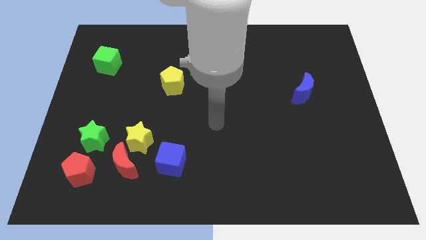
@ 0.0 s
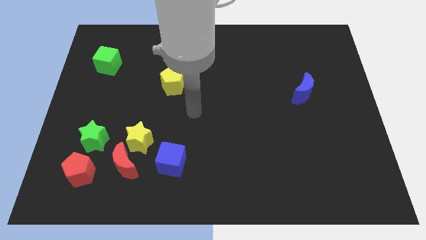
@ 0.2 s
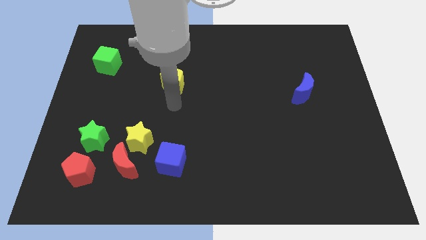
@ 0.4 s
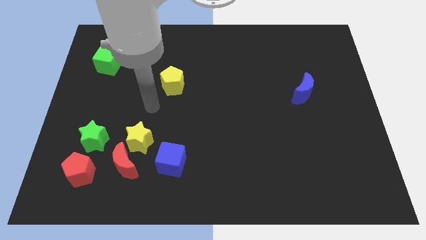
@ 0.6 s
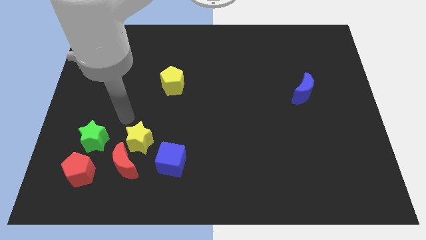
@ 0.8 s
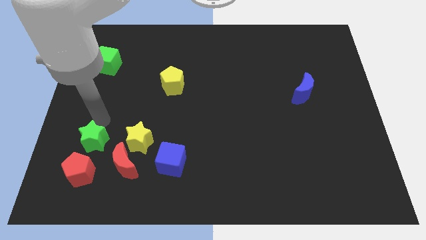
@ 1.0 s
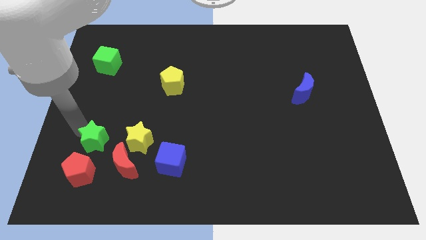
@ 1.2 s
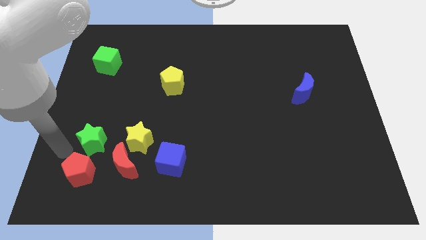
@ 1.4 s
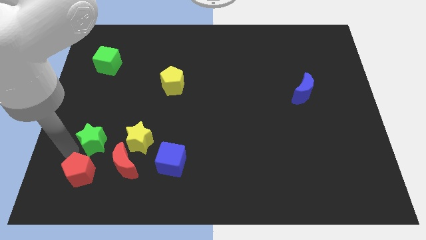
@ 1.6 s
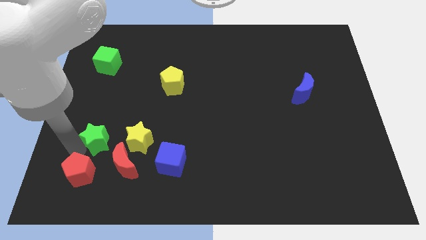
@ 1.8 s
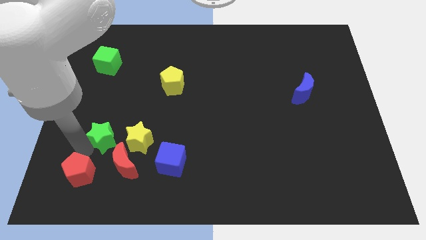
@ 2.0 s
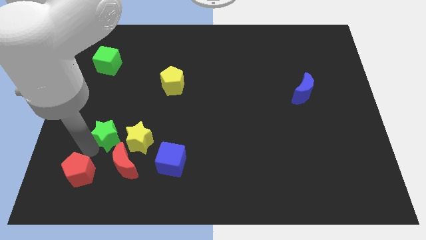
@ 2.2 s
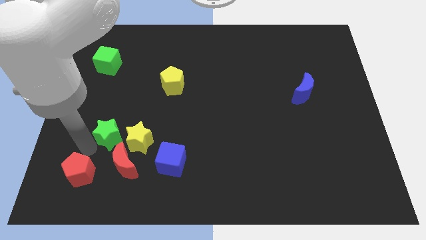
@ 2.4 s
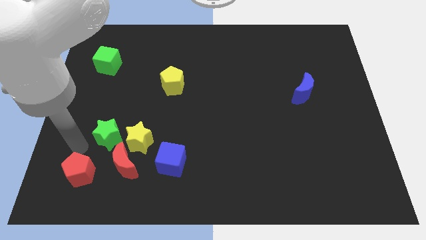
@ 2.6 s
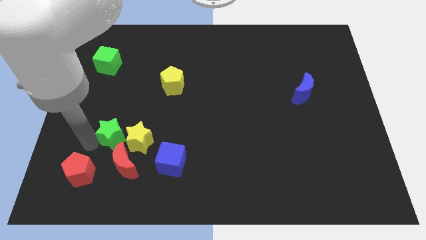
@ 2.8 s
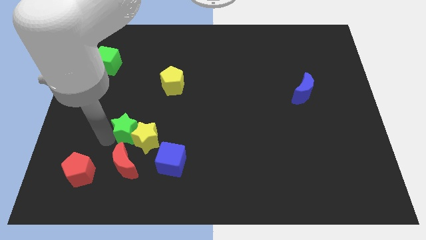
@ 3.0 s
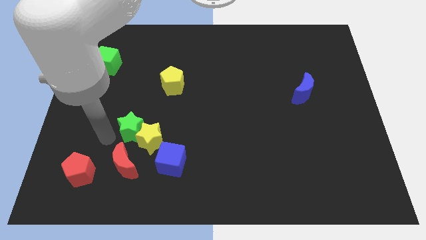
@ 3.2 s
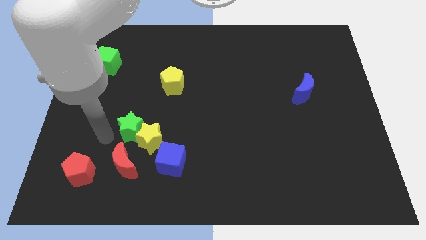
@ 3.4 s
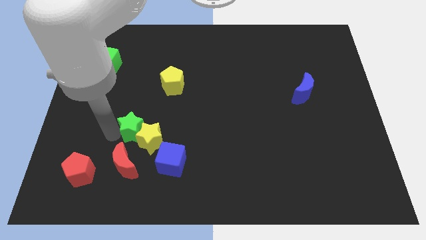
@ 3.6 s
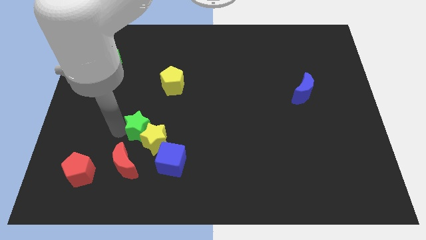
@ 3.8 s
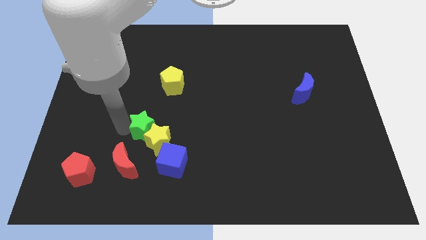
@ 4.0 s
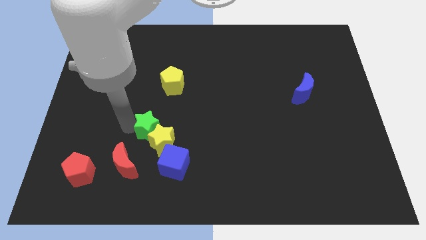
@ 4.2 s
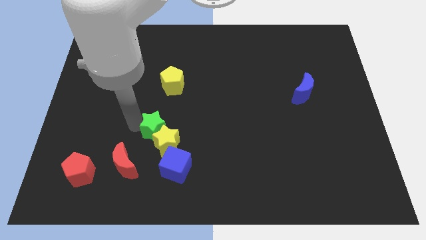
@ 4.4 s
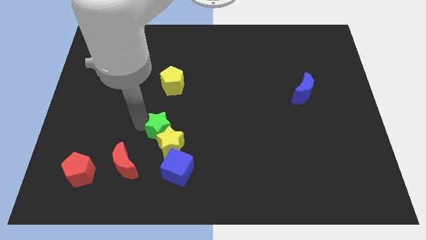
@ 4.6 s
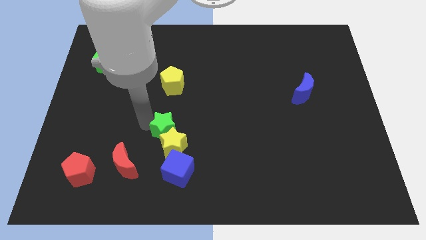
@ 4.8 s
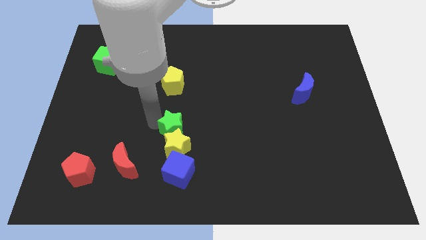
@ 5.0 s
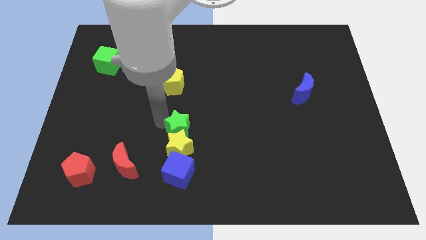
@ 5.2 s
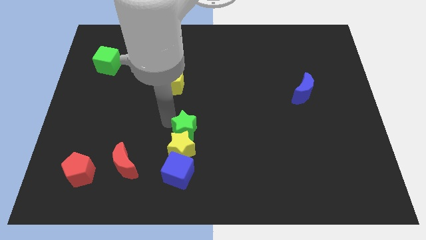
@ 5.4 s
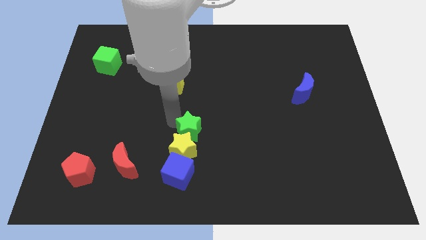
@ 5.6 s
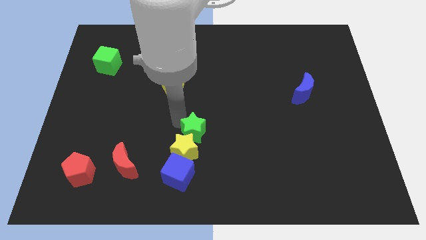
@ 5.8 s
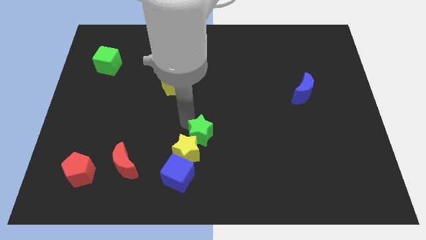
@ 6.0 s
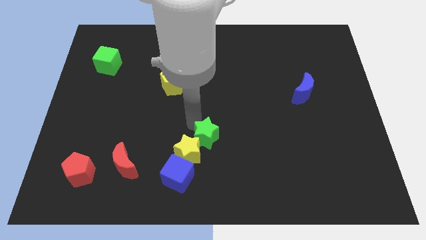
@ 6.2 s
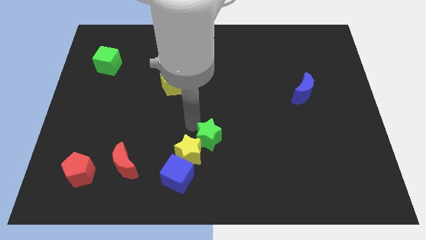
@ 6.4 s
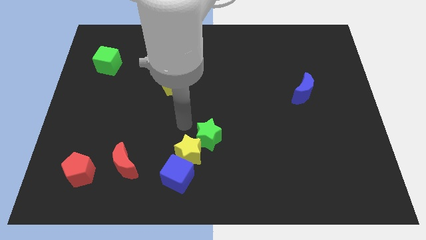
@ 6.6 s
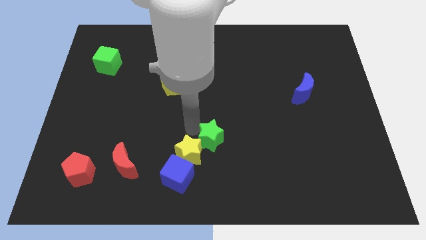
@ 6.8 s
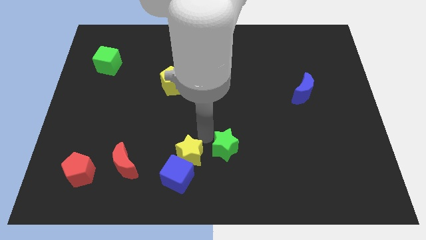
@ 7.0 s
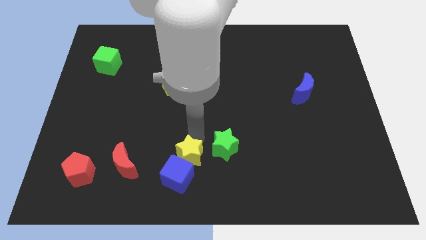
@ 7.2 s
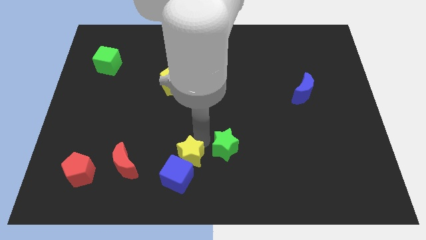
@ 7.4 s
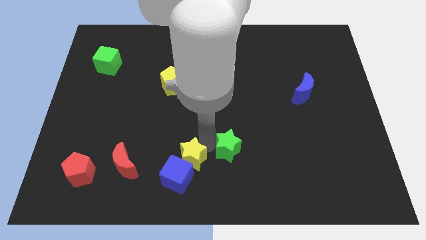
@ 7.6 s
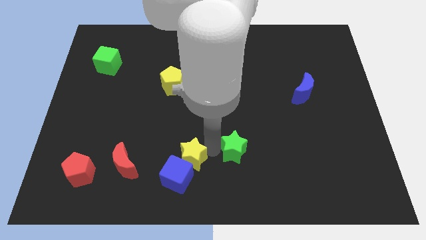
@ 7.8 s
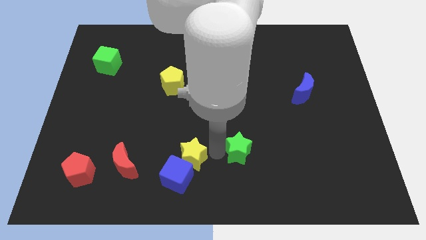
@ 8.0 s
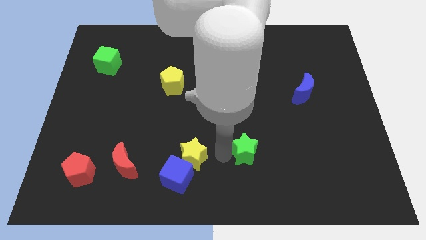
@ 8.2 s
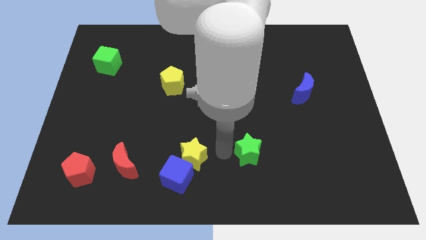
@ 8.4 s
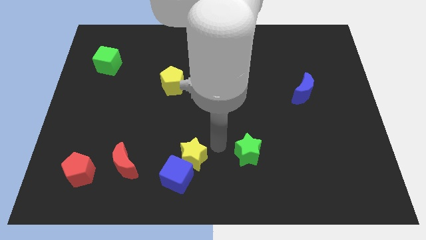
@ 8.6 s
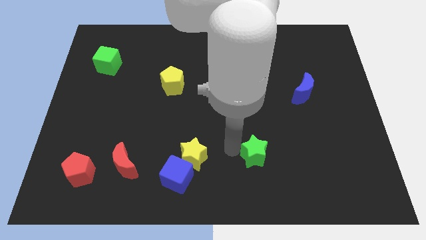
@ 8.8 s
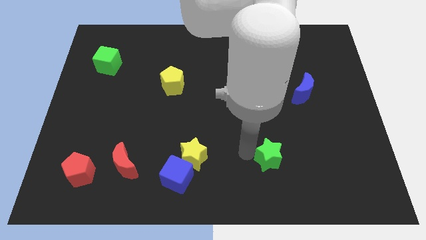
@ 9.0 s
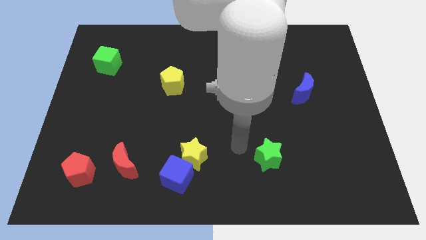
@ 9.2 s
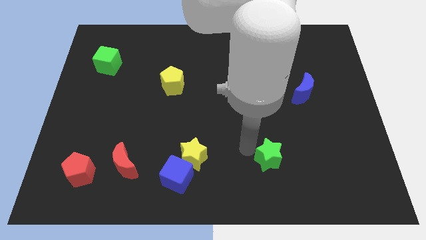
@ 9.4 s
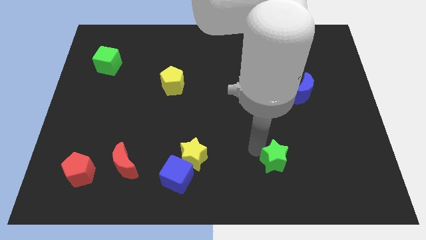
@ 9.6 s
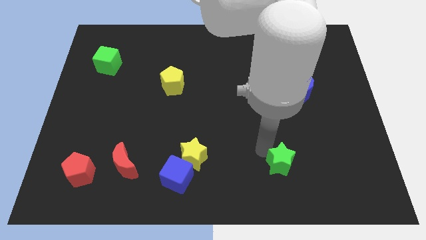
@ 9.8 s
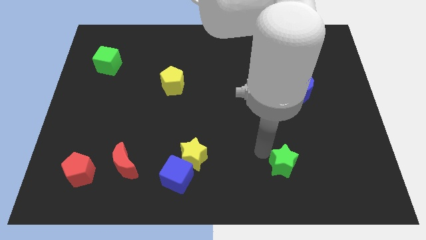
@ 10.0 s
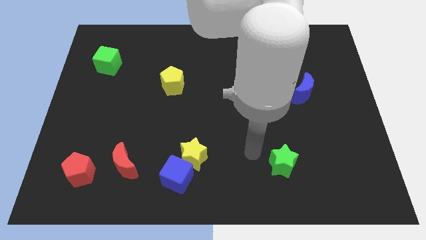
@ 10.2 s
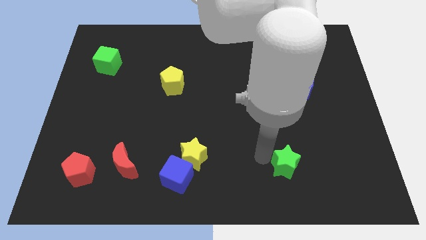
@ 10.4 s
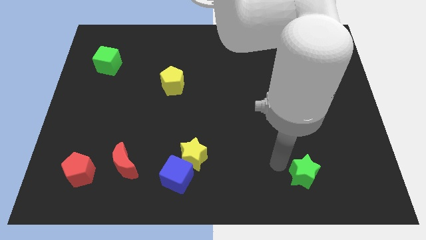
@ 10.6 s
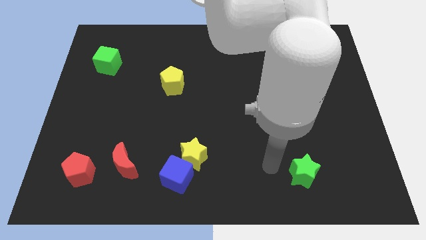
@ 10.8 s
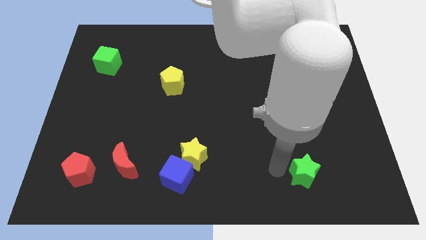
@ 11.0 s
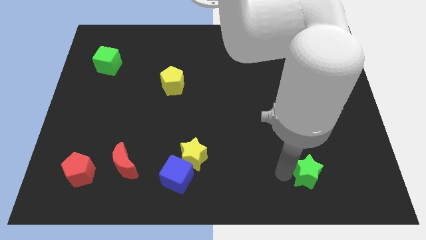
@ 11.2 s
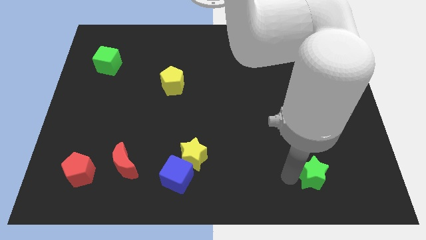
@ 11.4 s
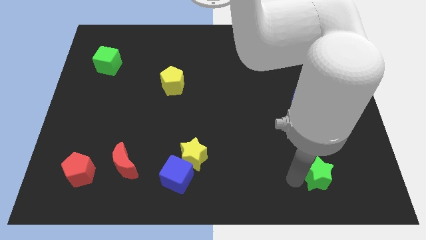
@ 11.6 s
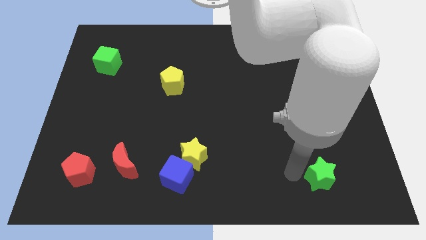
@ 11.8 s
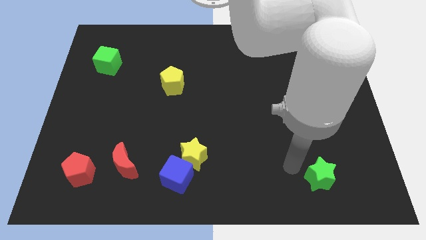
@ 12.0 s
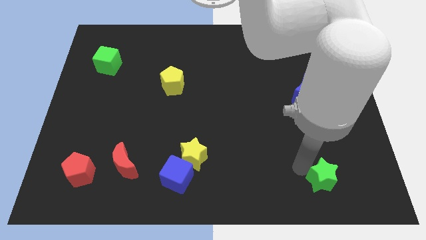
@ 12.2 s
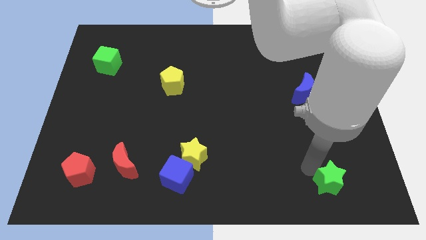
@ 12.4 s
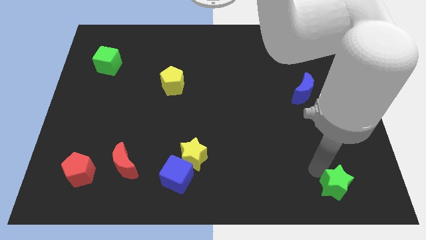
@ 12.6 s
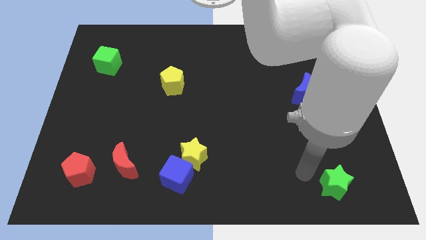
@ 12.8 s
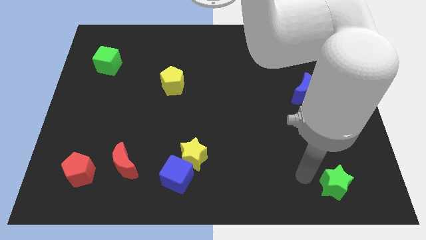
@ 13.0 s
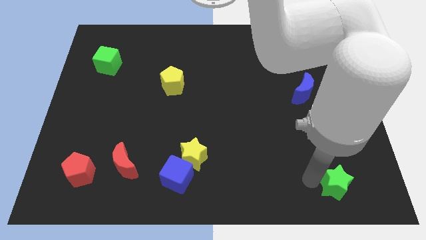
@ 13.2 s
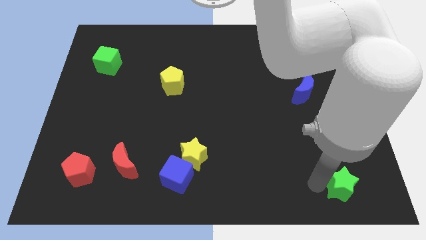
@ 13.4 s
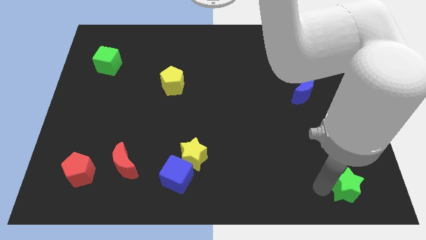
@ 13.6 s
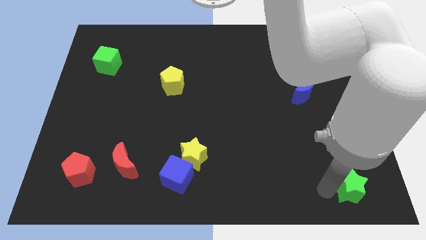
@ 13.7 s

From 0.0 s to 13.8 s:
push the green star to the bottom right corner
